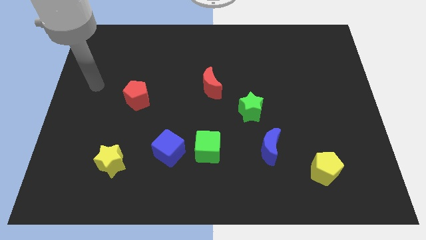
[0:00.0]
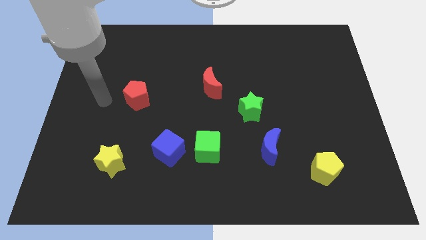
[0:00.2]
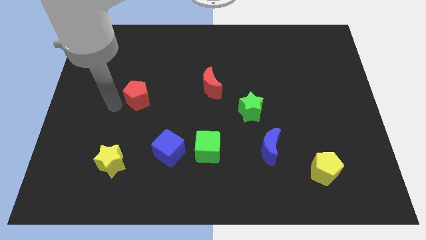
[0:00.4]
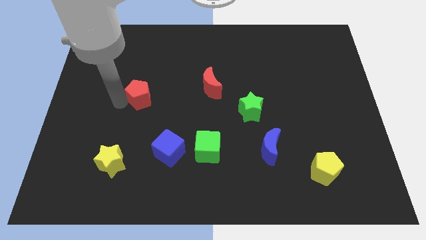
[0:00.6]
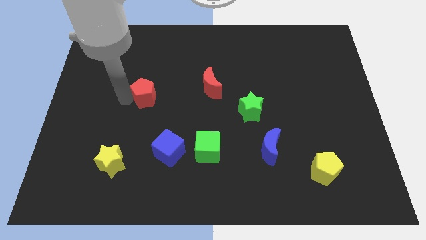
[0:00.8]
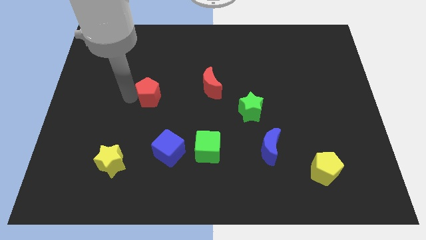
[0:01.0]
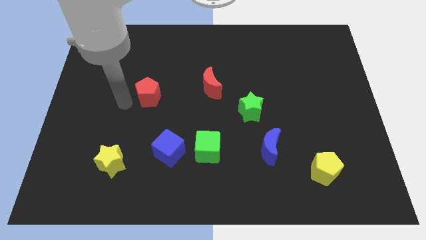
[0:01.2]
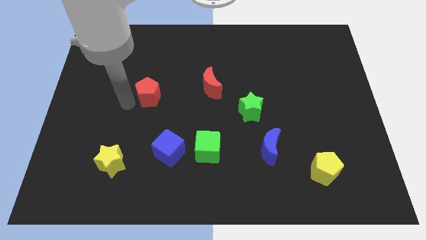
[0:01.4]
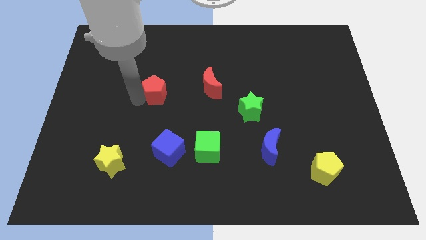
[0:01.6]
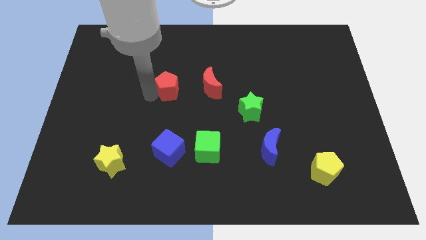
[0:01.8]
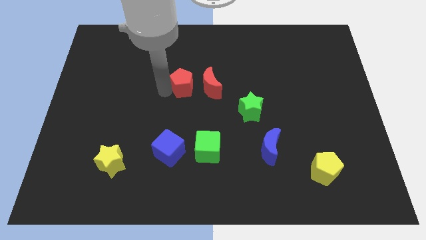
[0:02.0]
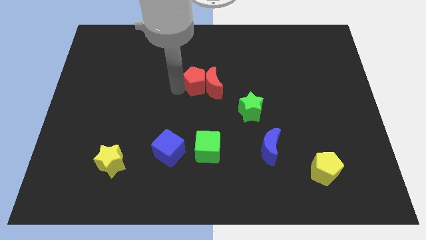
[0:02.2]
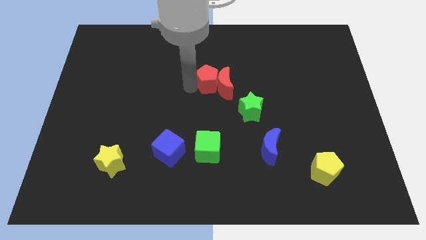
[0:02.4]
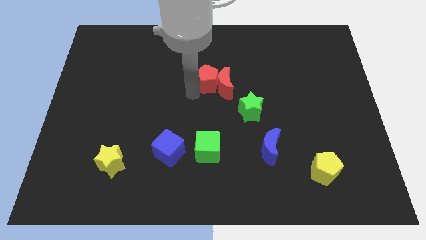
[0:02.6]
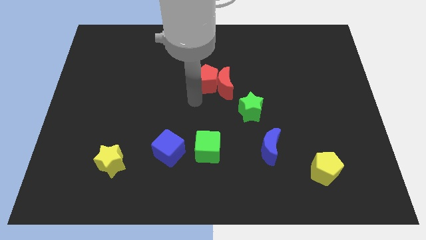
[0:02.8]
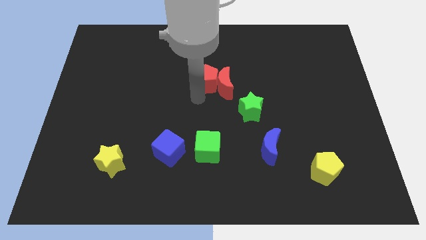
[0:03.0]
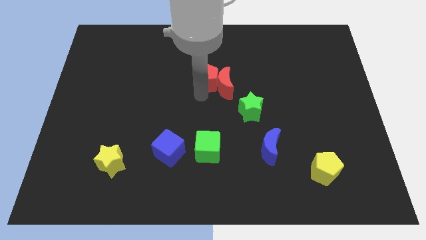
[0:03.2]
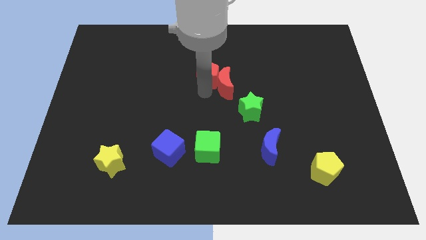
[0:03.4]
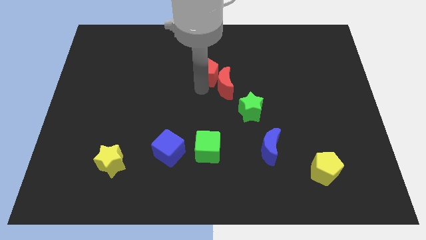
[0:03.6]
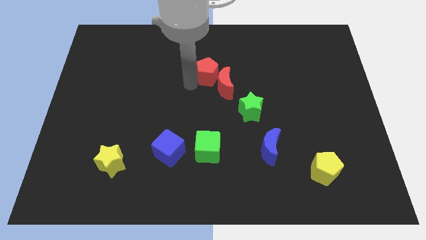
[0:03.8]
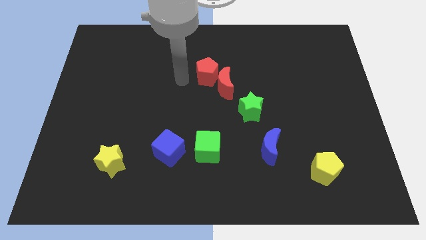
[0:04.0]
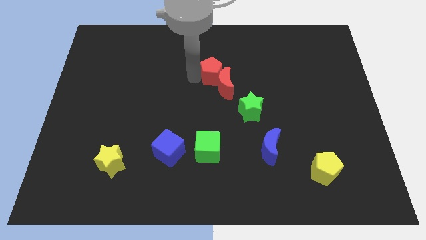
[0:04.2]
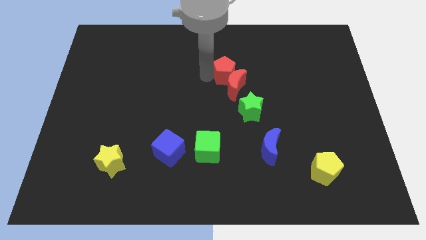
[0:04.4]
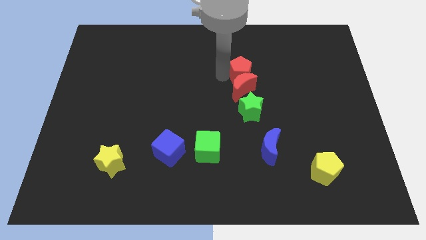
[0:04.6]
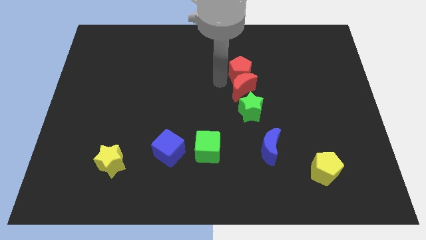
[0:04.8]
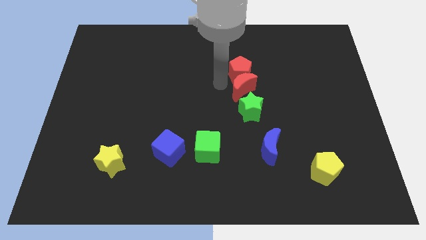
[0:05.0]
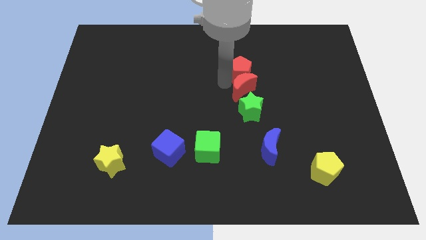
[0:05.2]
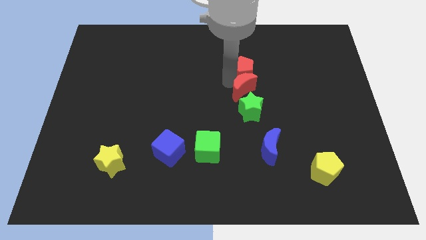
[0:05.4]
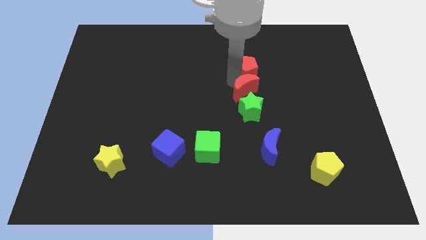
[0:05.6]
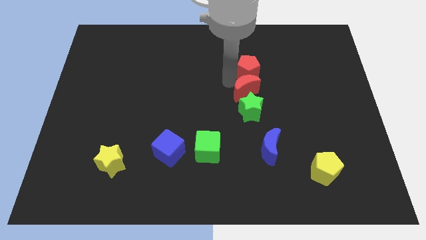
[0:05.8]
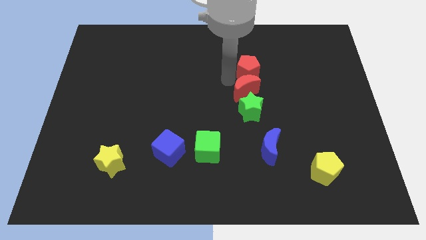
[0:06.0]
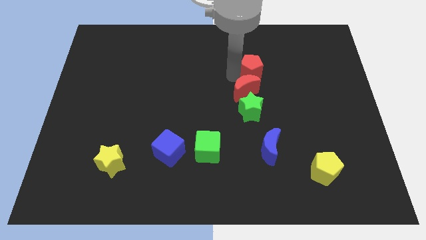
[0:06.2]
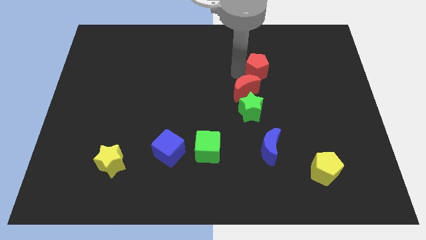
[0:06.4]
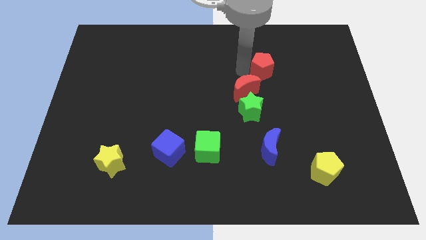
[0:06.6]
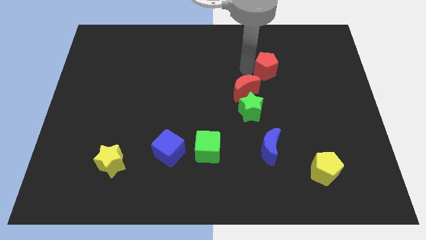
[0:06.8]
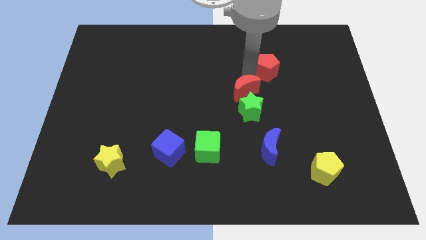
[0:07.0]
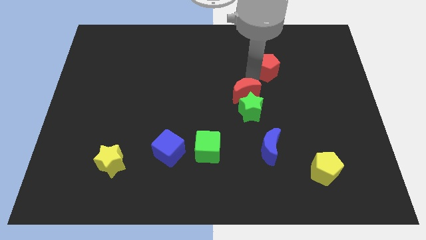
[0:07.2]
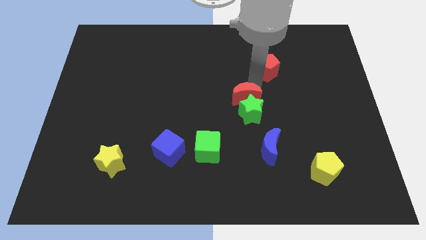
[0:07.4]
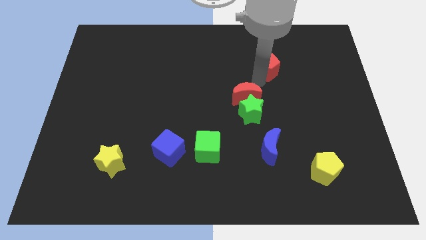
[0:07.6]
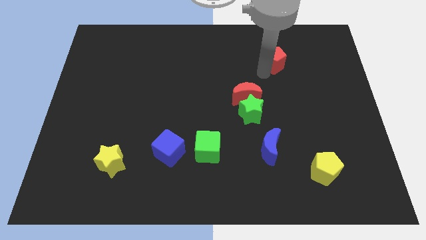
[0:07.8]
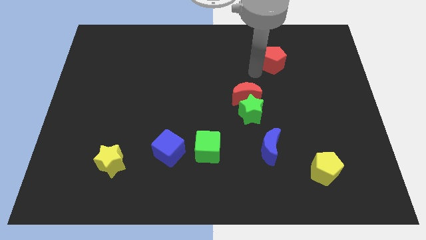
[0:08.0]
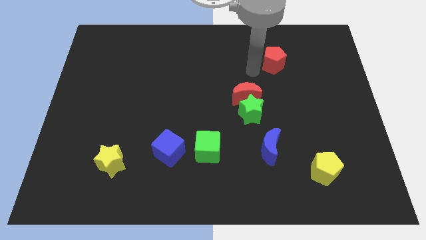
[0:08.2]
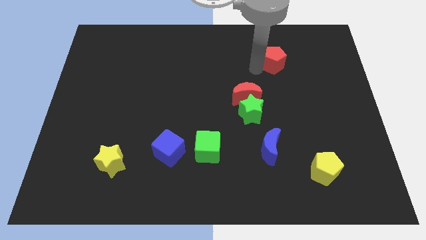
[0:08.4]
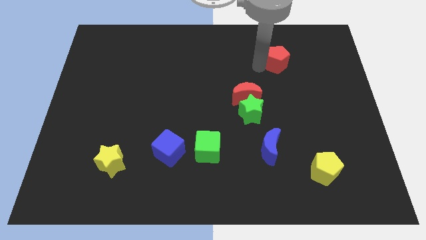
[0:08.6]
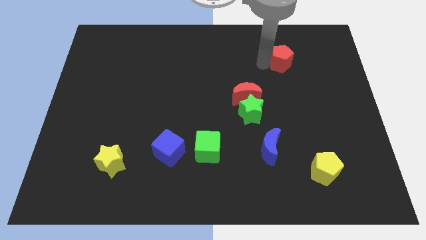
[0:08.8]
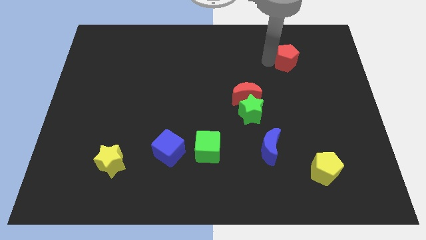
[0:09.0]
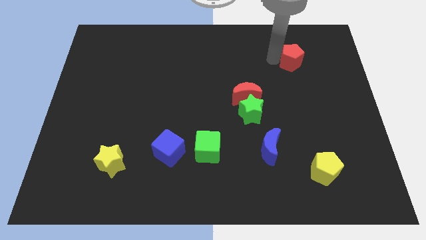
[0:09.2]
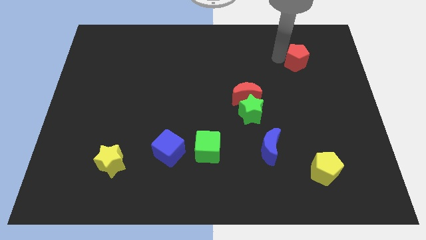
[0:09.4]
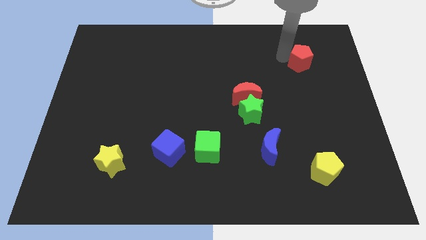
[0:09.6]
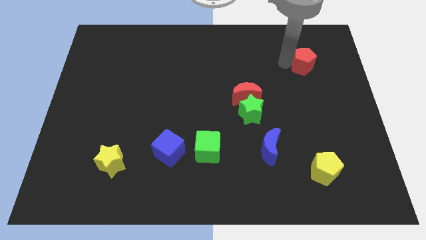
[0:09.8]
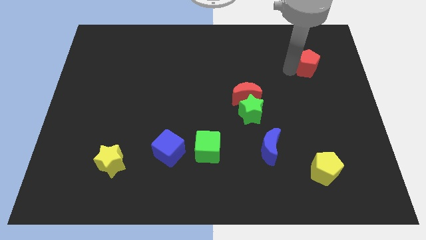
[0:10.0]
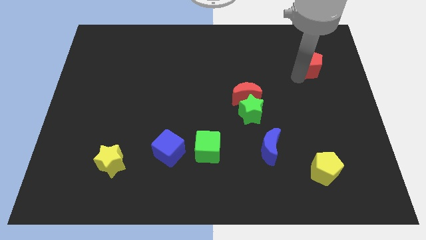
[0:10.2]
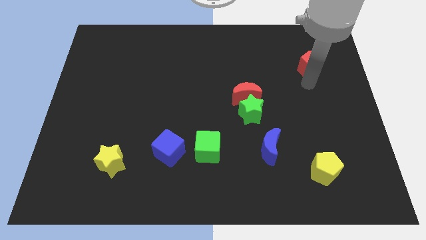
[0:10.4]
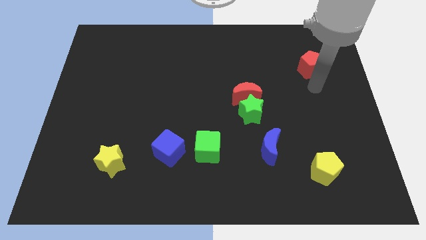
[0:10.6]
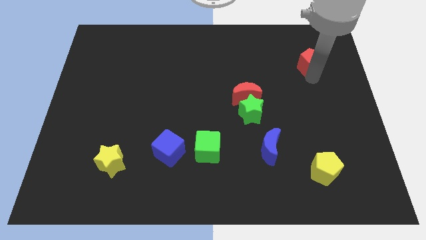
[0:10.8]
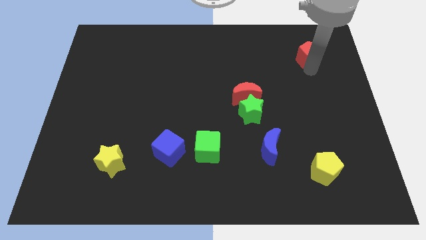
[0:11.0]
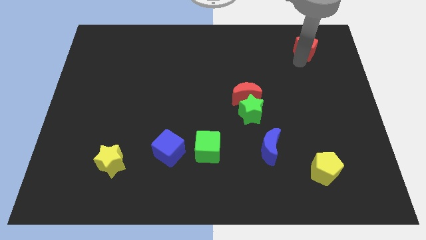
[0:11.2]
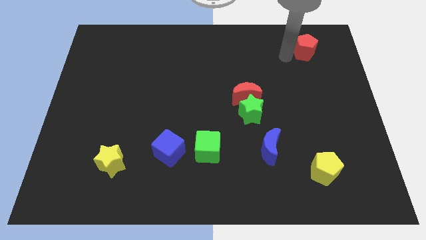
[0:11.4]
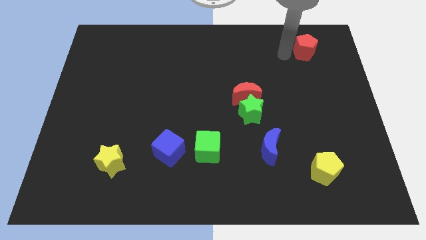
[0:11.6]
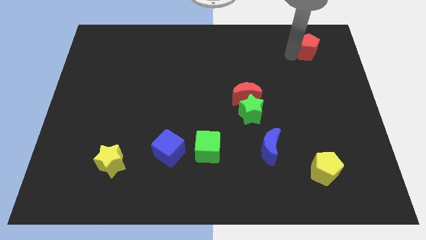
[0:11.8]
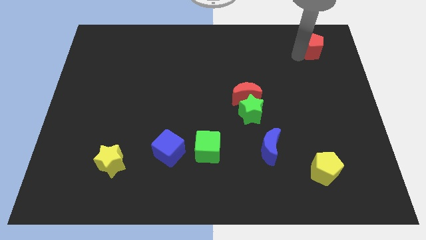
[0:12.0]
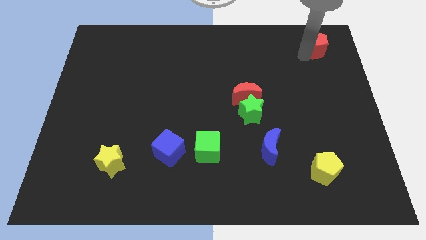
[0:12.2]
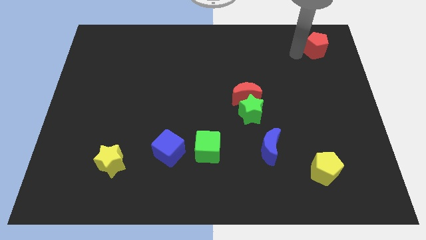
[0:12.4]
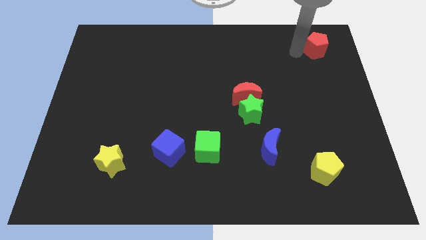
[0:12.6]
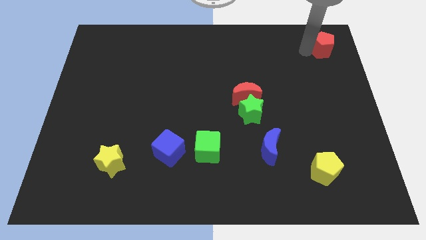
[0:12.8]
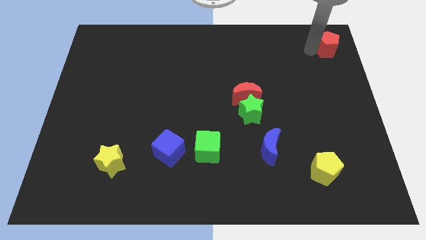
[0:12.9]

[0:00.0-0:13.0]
move the red pentagon to the top right of the board
